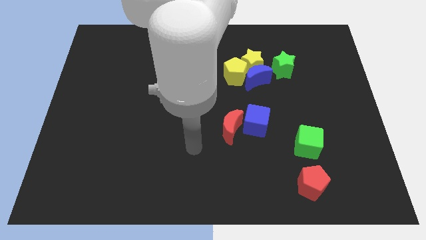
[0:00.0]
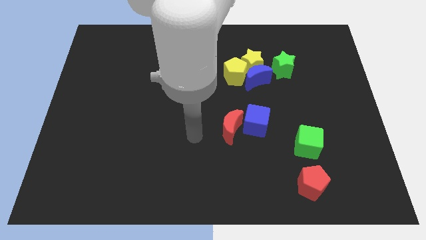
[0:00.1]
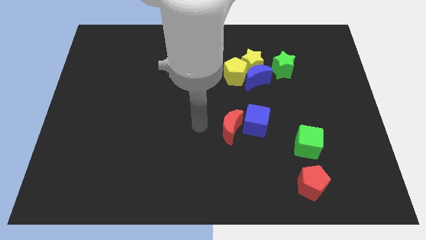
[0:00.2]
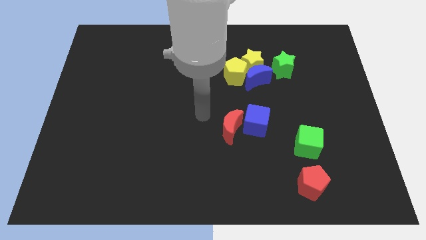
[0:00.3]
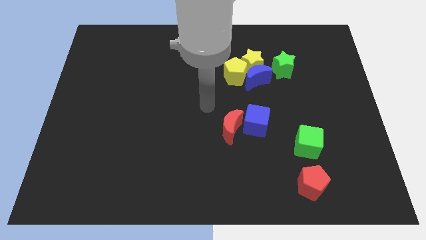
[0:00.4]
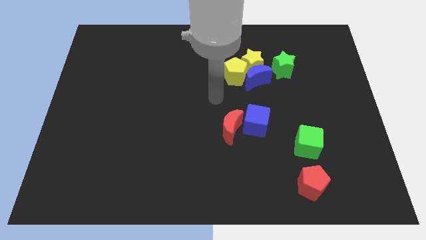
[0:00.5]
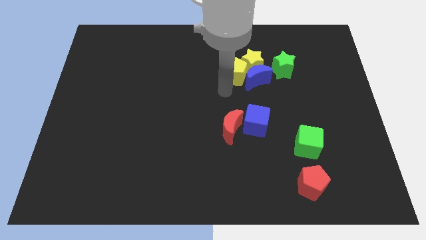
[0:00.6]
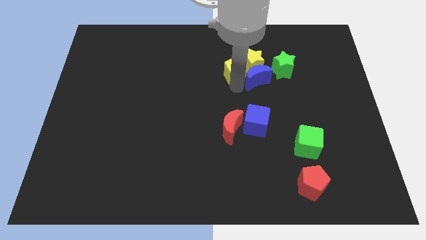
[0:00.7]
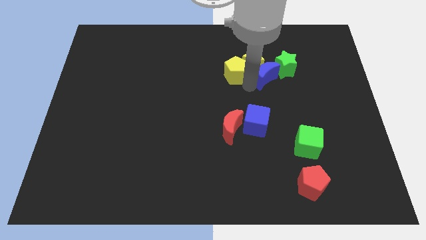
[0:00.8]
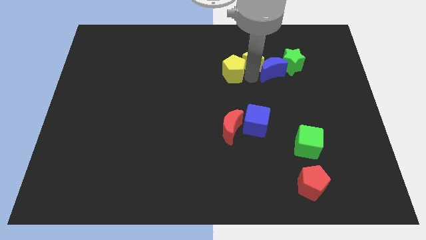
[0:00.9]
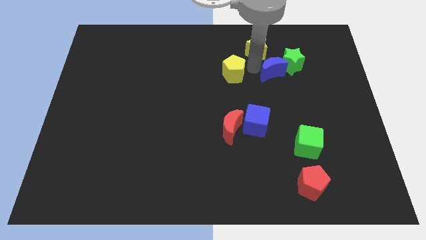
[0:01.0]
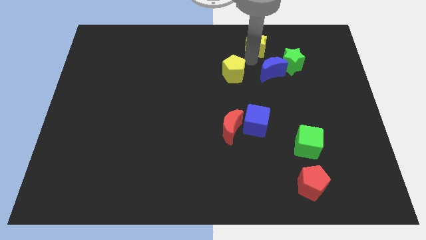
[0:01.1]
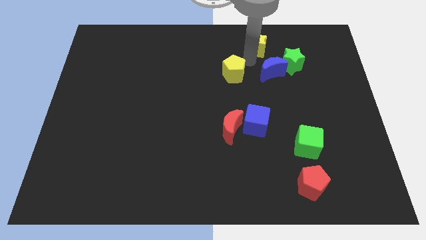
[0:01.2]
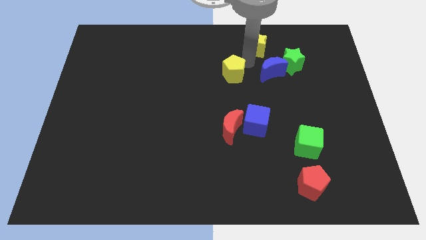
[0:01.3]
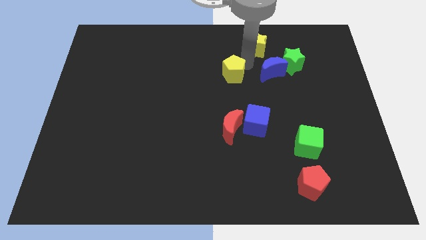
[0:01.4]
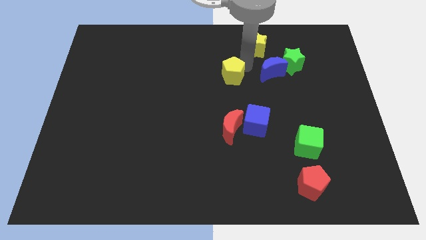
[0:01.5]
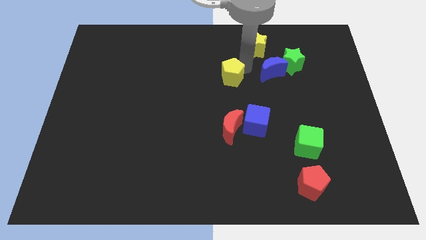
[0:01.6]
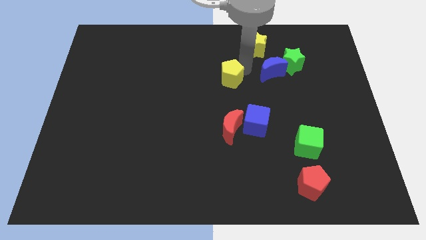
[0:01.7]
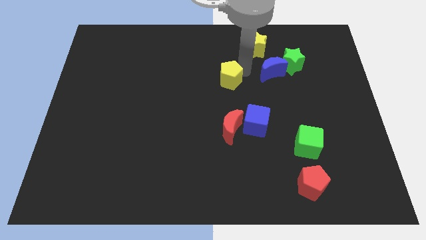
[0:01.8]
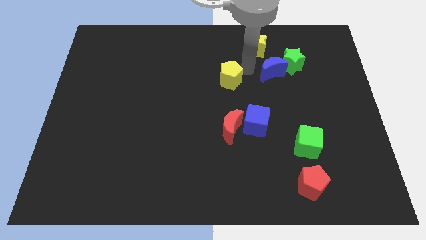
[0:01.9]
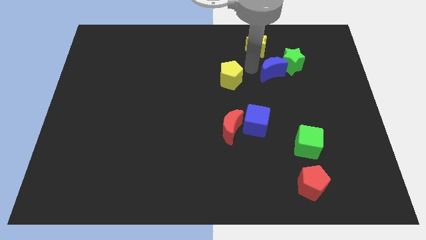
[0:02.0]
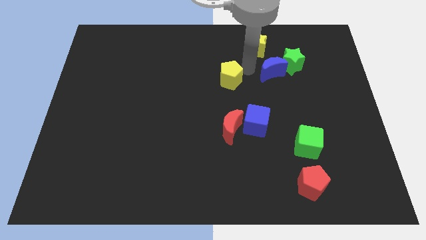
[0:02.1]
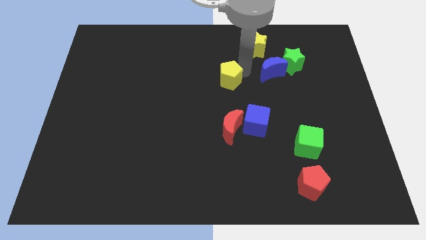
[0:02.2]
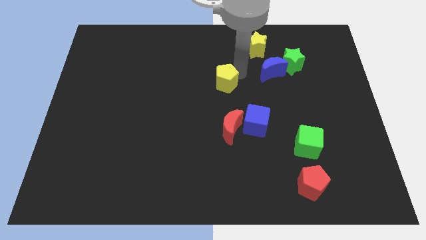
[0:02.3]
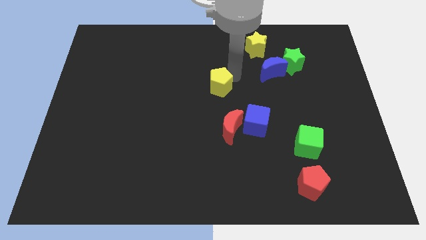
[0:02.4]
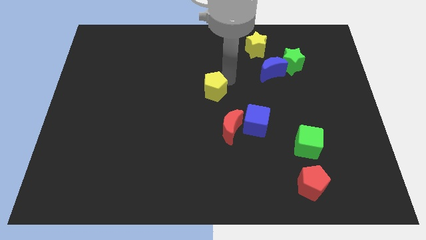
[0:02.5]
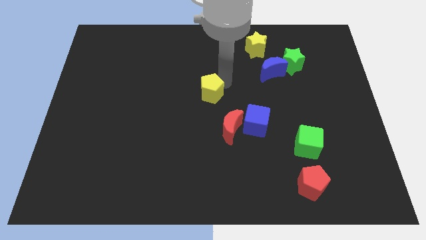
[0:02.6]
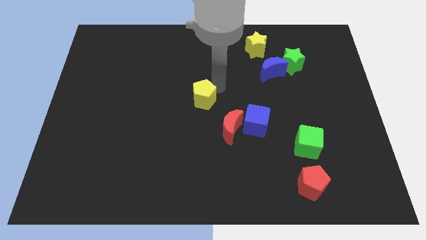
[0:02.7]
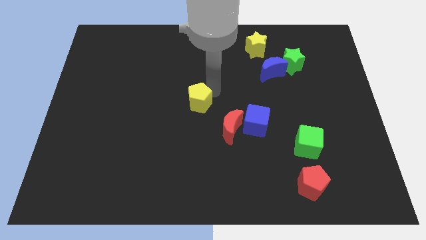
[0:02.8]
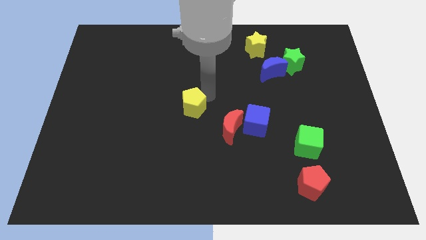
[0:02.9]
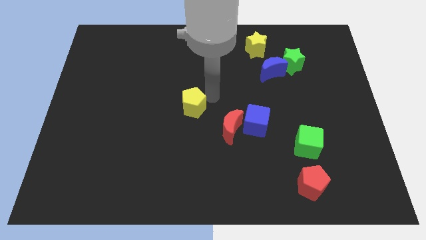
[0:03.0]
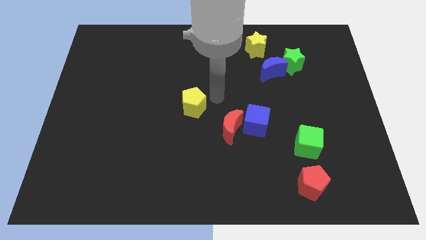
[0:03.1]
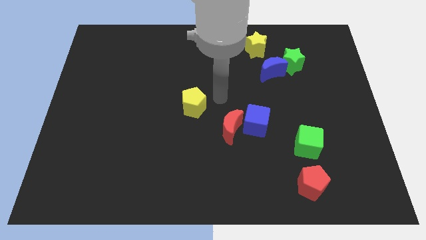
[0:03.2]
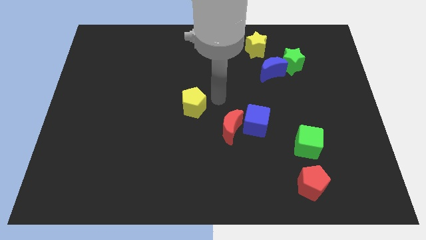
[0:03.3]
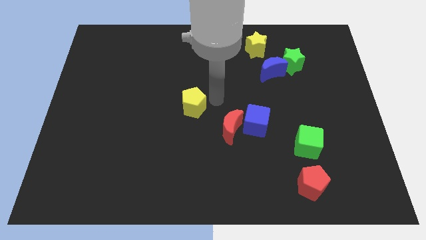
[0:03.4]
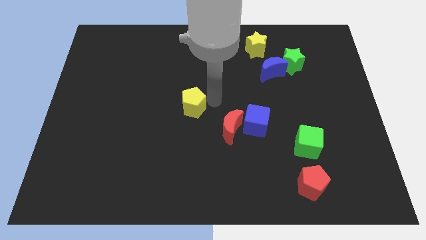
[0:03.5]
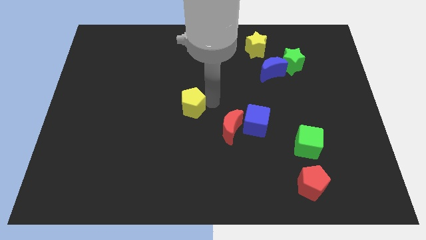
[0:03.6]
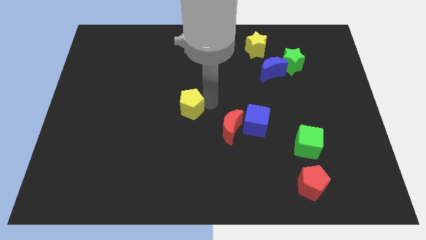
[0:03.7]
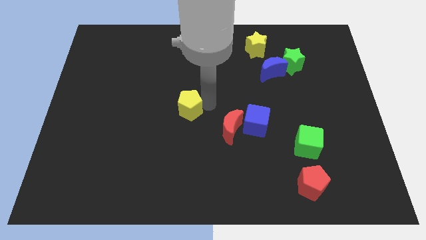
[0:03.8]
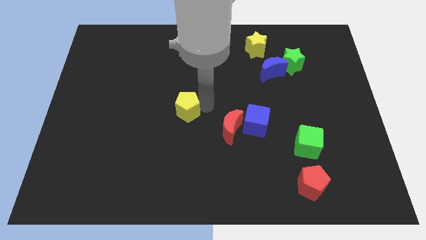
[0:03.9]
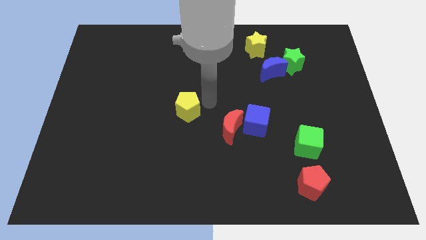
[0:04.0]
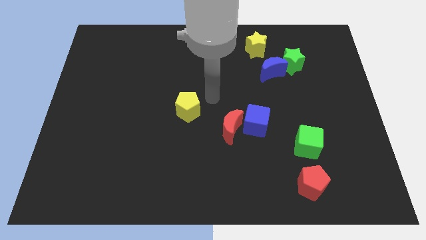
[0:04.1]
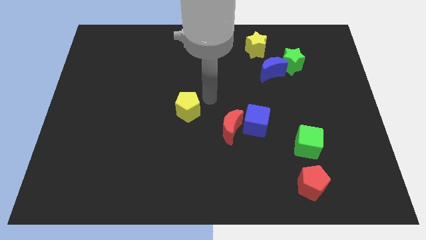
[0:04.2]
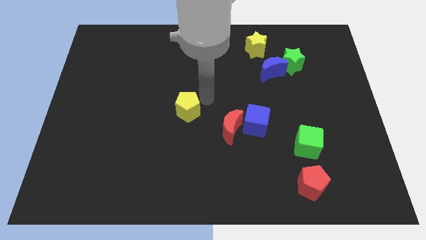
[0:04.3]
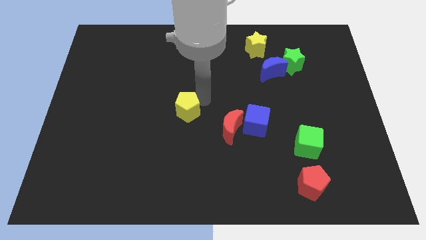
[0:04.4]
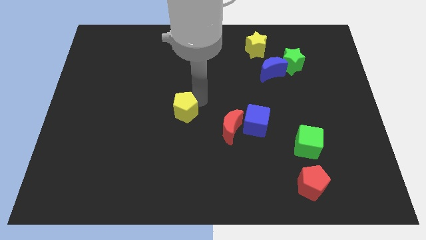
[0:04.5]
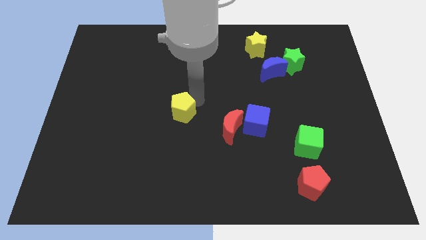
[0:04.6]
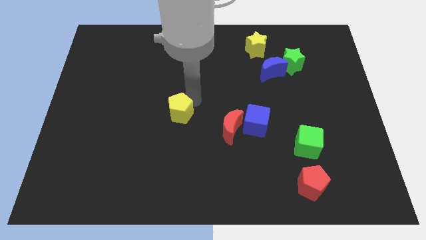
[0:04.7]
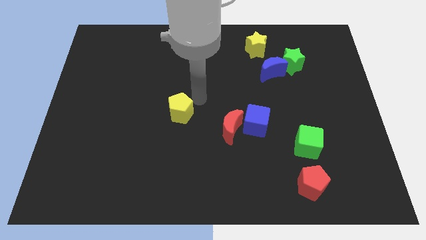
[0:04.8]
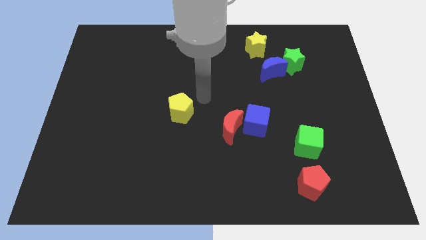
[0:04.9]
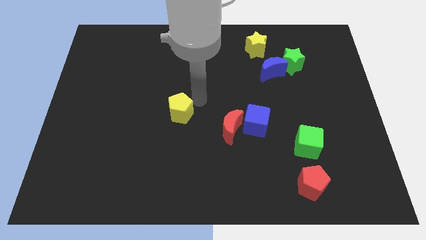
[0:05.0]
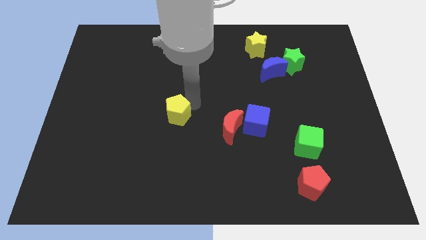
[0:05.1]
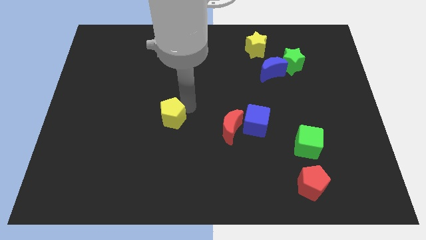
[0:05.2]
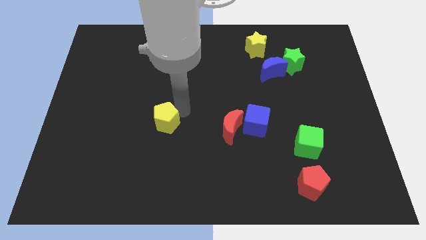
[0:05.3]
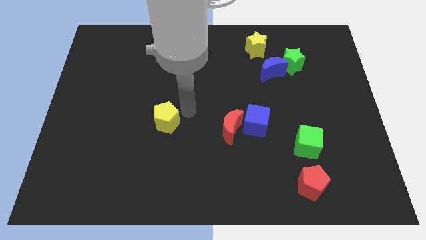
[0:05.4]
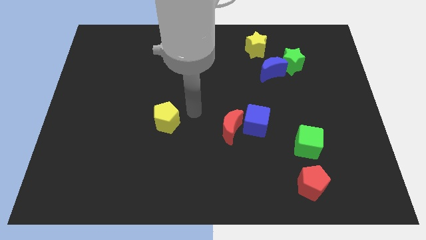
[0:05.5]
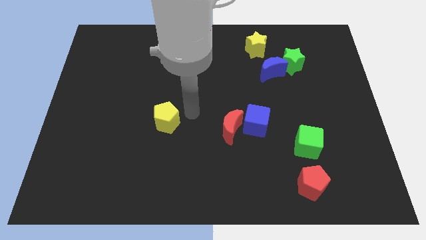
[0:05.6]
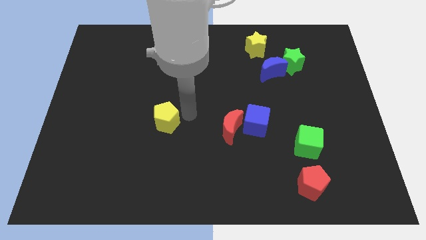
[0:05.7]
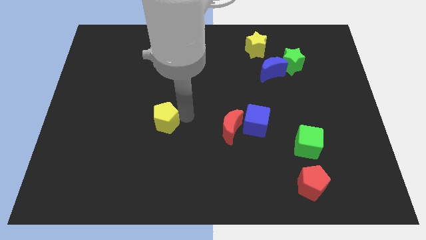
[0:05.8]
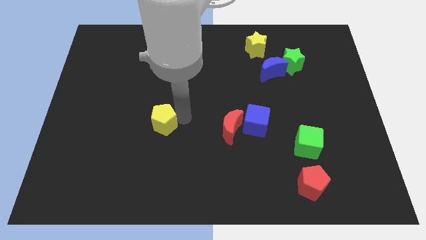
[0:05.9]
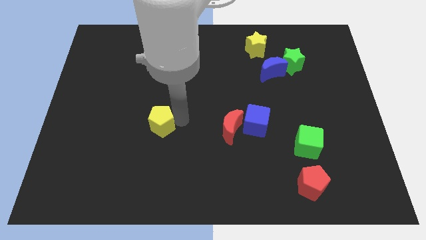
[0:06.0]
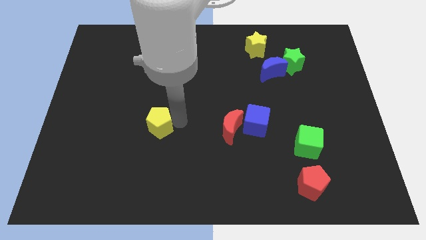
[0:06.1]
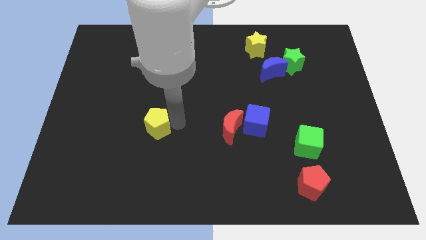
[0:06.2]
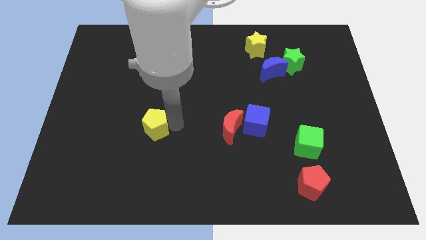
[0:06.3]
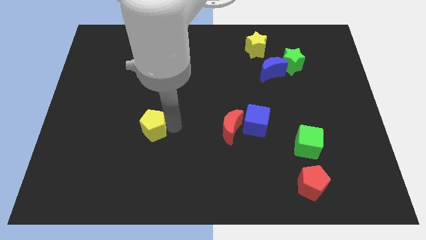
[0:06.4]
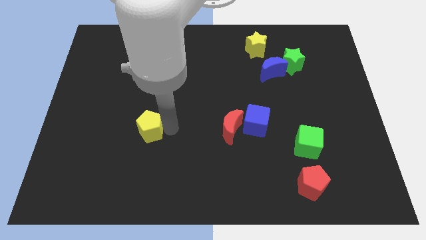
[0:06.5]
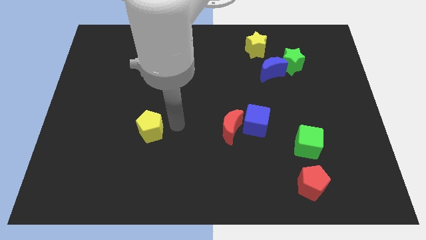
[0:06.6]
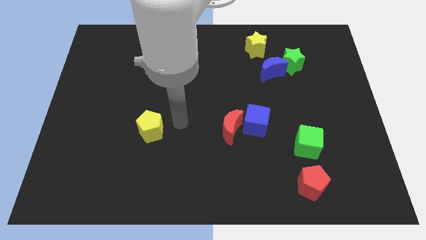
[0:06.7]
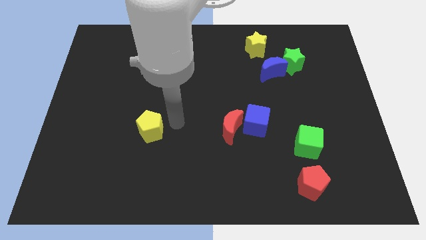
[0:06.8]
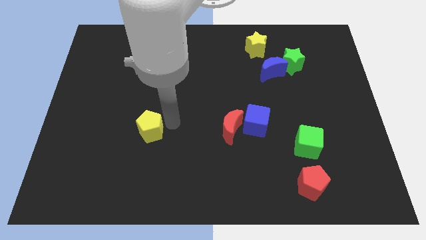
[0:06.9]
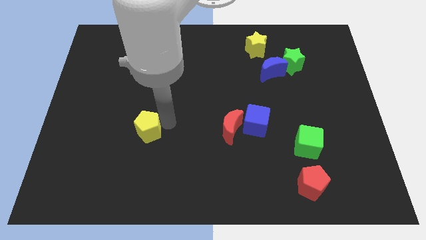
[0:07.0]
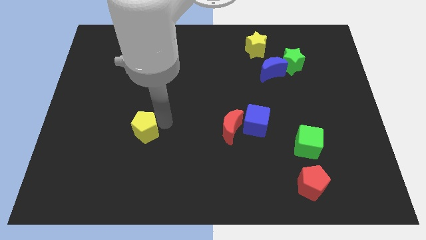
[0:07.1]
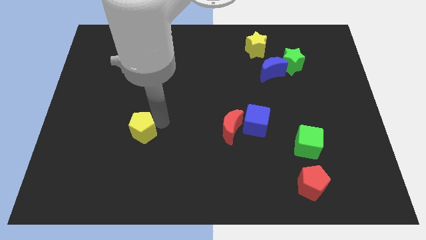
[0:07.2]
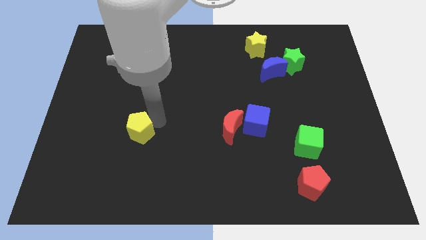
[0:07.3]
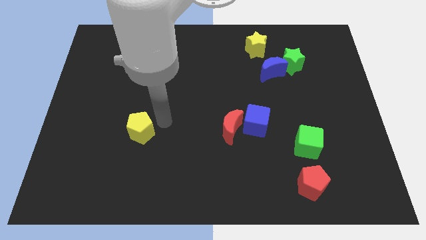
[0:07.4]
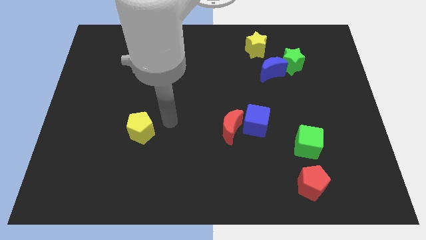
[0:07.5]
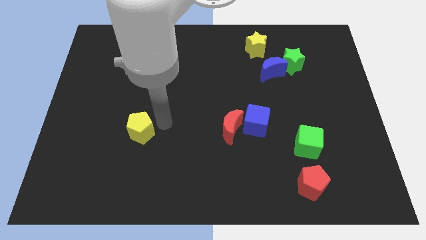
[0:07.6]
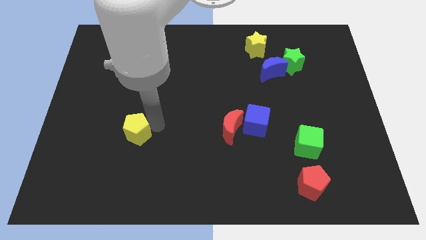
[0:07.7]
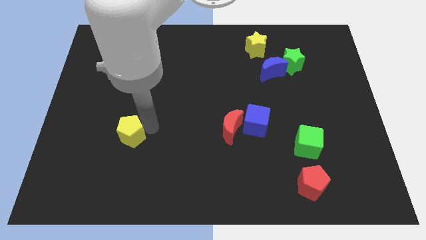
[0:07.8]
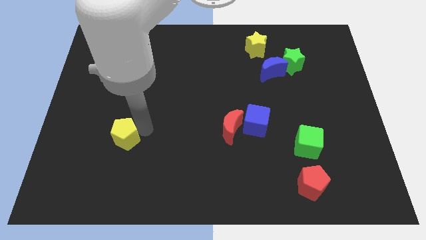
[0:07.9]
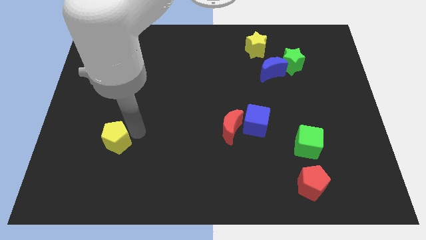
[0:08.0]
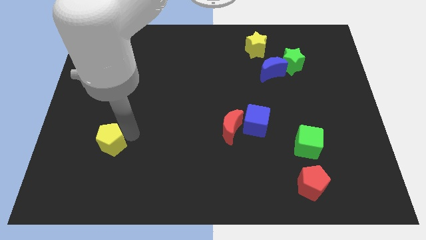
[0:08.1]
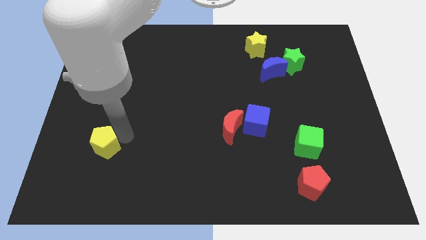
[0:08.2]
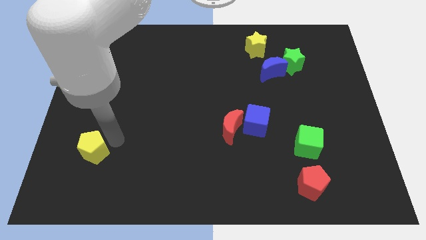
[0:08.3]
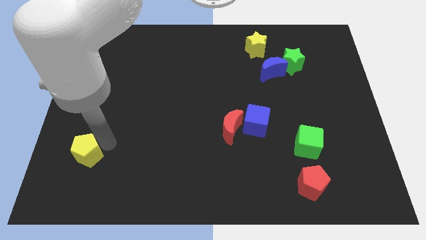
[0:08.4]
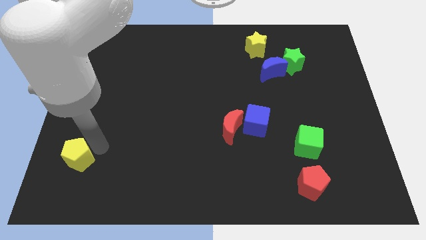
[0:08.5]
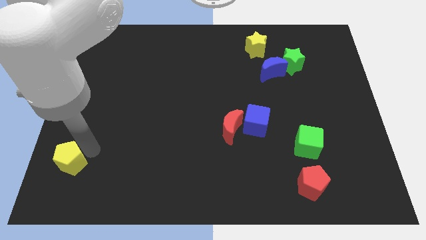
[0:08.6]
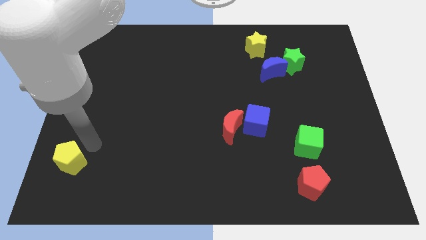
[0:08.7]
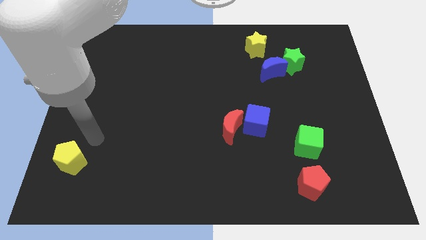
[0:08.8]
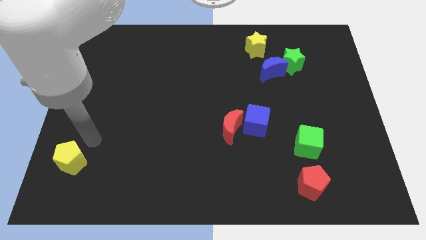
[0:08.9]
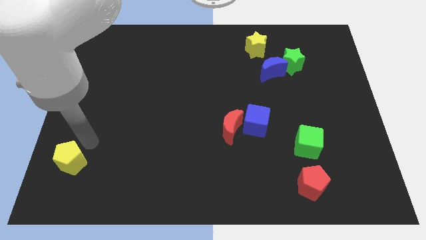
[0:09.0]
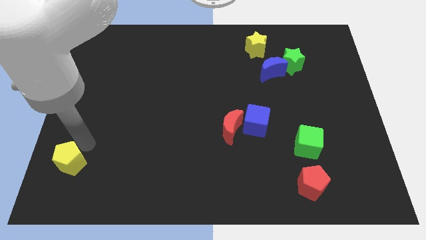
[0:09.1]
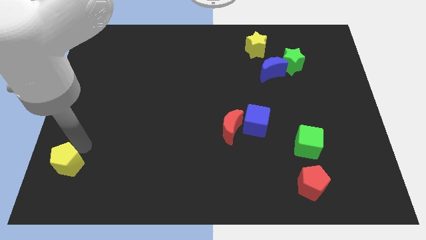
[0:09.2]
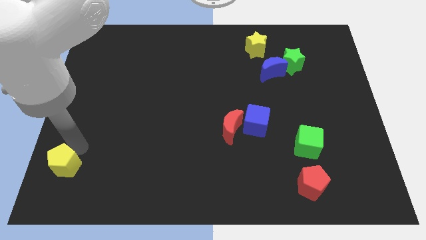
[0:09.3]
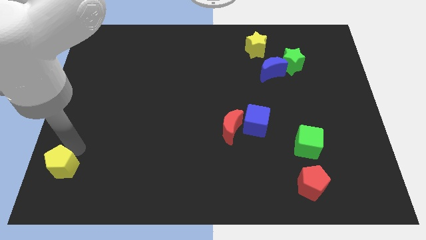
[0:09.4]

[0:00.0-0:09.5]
push the yellow pentagon to the bottom left
